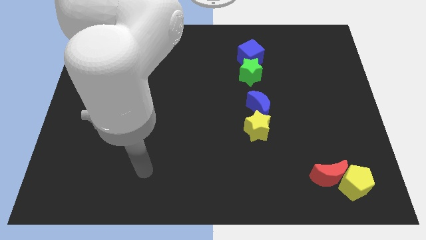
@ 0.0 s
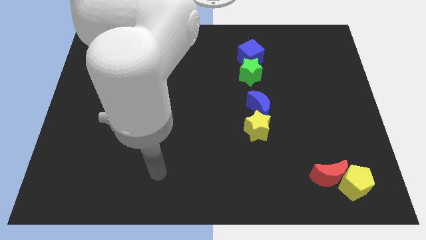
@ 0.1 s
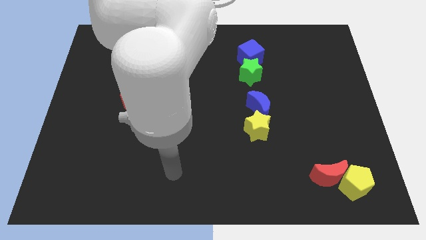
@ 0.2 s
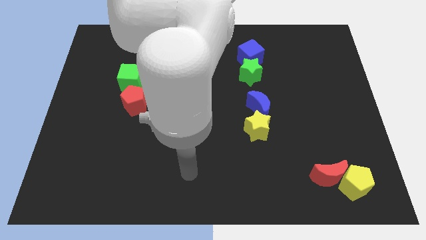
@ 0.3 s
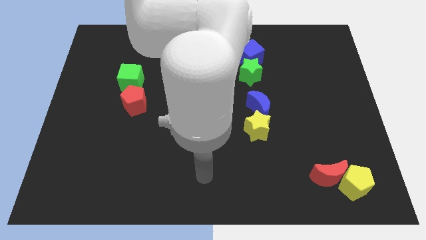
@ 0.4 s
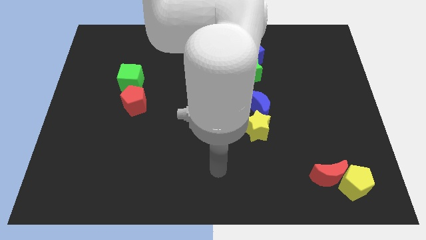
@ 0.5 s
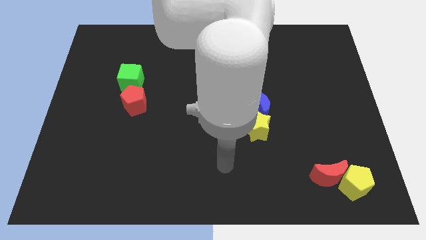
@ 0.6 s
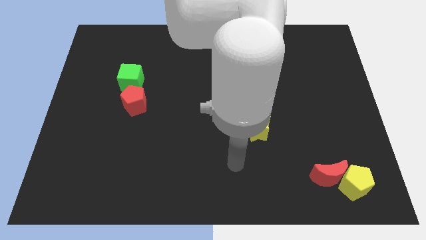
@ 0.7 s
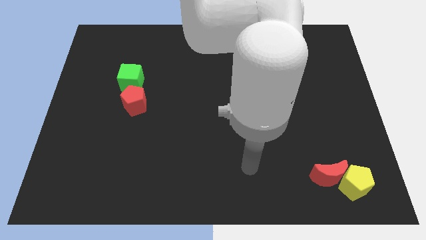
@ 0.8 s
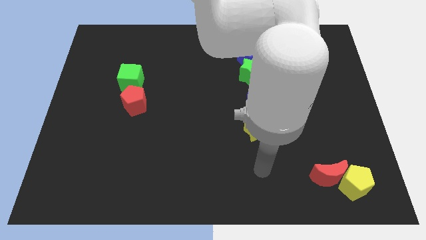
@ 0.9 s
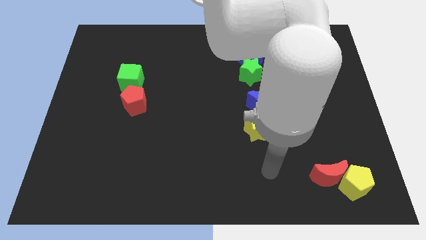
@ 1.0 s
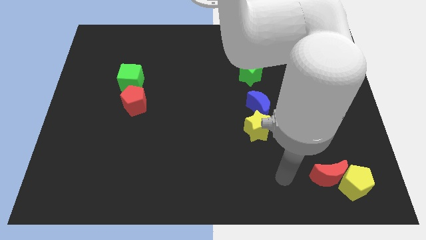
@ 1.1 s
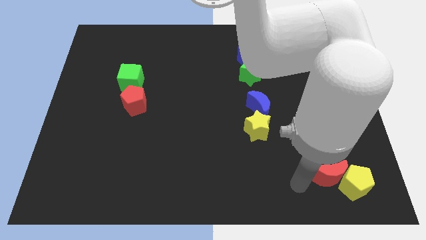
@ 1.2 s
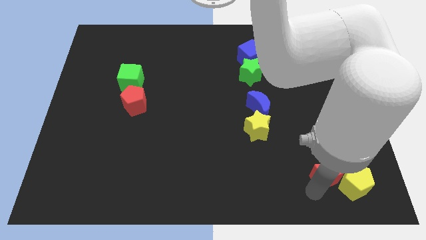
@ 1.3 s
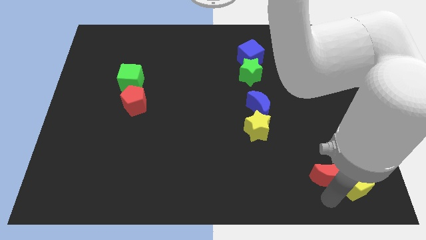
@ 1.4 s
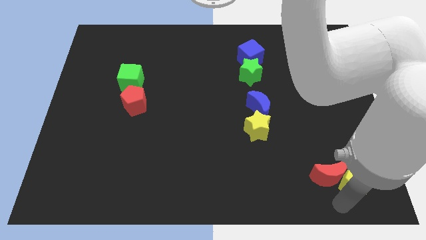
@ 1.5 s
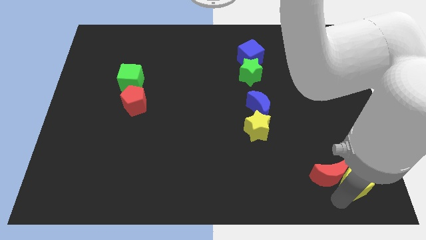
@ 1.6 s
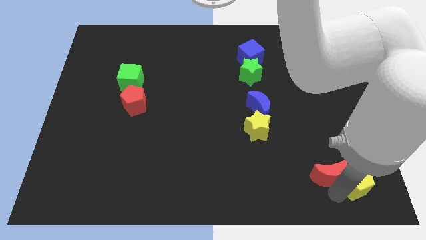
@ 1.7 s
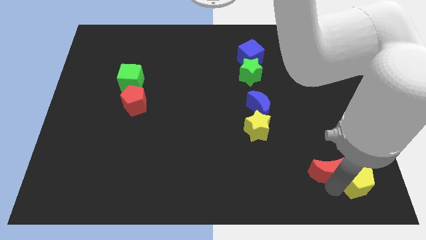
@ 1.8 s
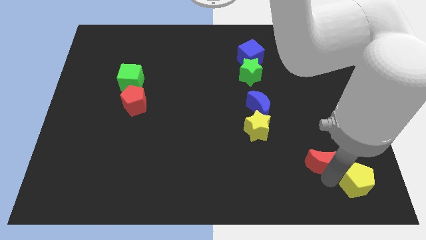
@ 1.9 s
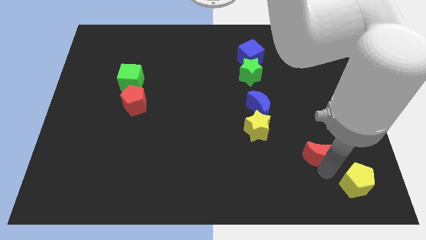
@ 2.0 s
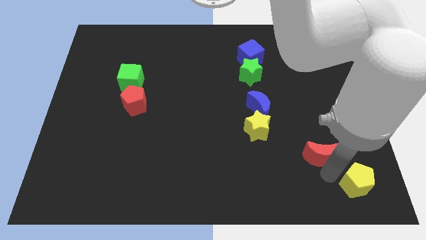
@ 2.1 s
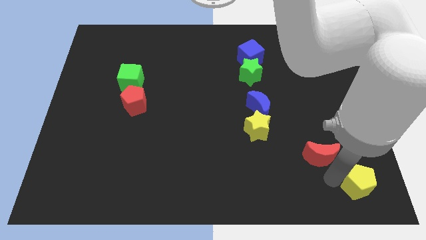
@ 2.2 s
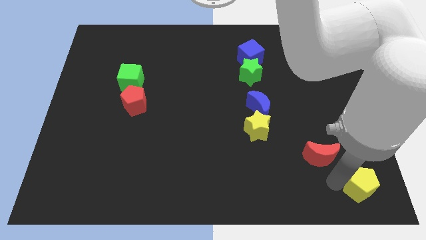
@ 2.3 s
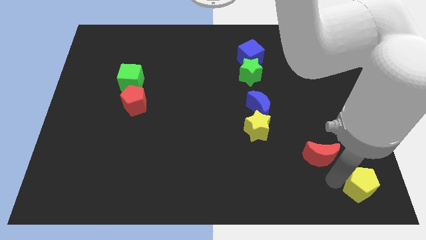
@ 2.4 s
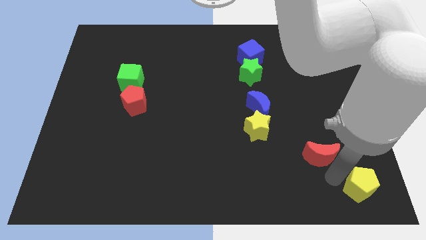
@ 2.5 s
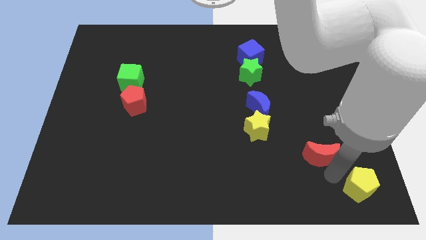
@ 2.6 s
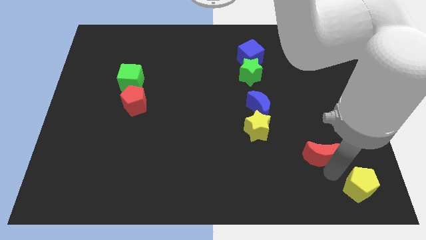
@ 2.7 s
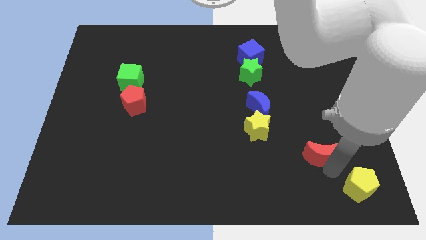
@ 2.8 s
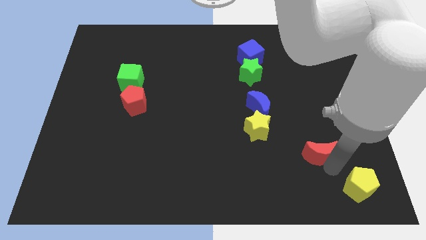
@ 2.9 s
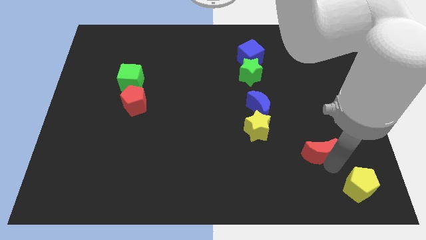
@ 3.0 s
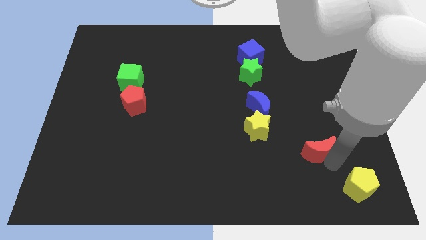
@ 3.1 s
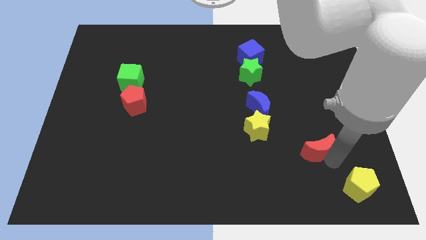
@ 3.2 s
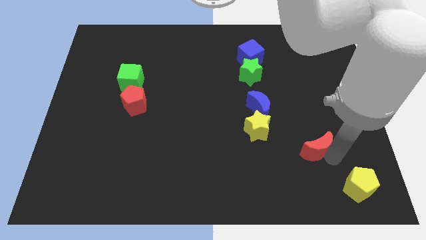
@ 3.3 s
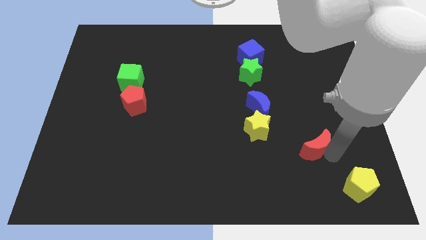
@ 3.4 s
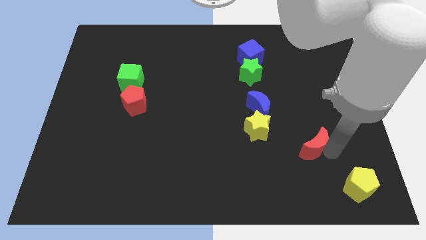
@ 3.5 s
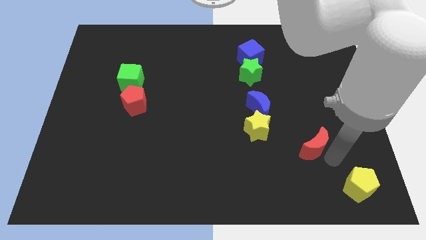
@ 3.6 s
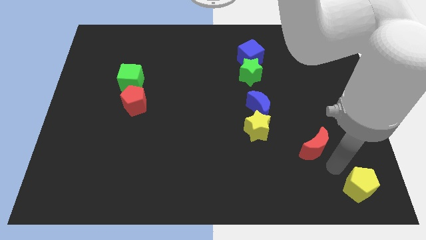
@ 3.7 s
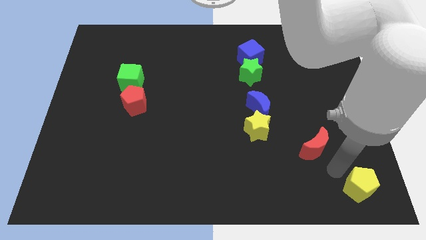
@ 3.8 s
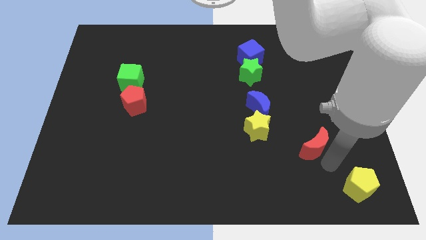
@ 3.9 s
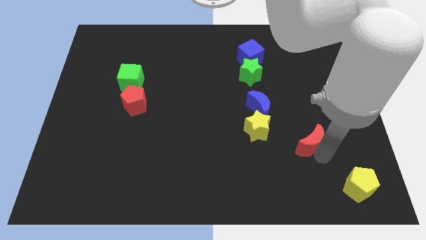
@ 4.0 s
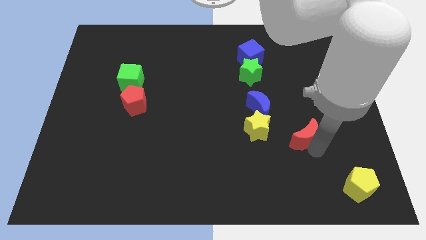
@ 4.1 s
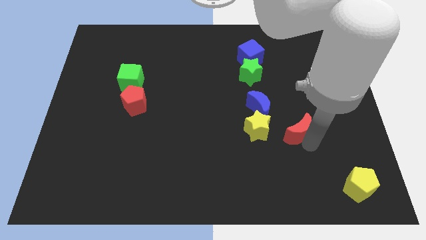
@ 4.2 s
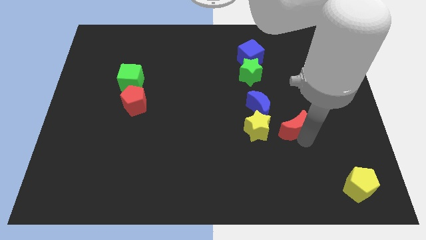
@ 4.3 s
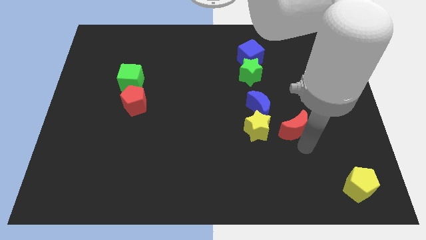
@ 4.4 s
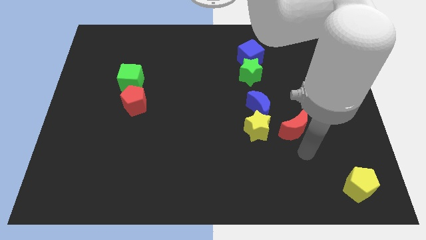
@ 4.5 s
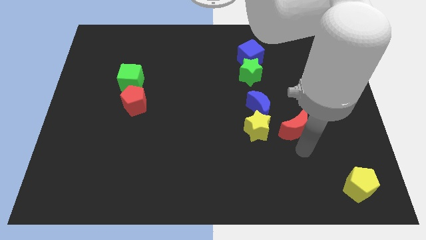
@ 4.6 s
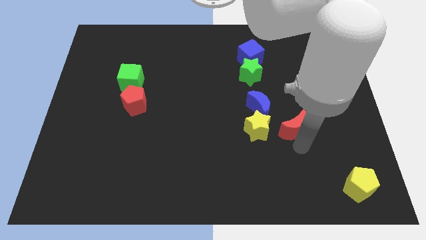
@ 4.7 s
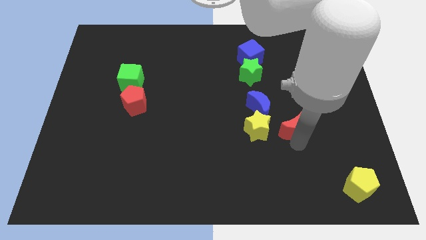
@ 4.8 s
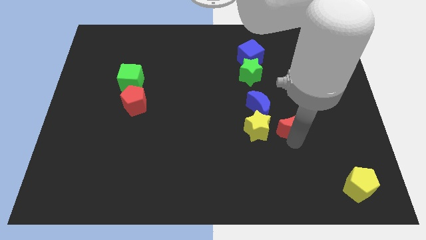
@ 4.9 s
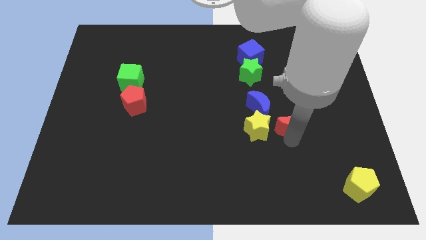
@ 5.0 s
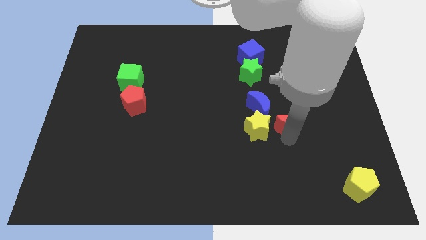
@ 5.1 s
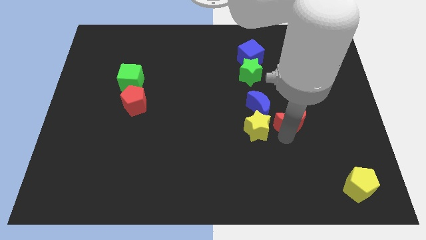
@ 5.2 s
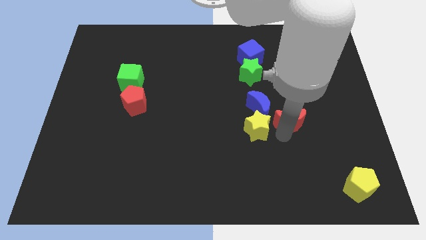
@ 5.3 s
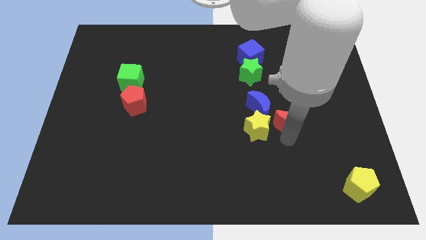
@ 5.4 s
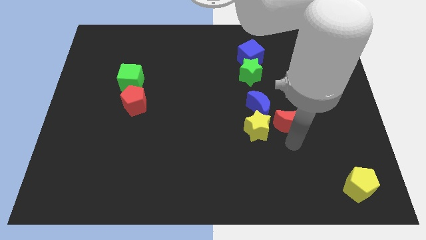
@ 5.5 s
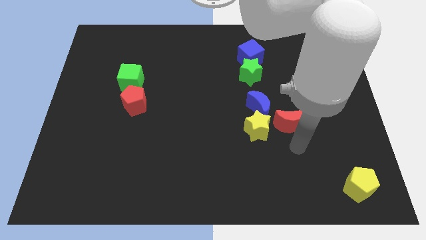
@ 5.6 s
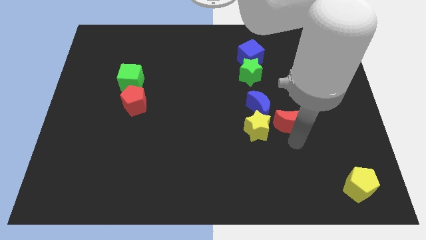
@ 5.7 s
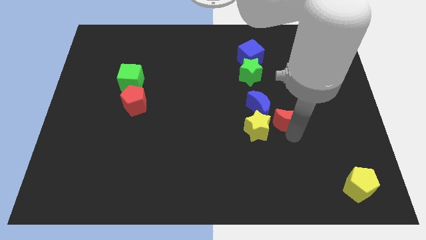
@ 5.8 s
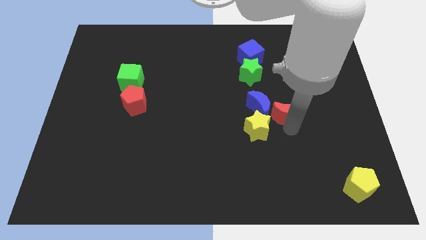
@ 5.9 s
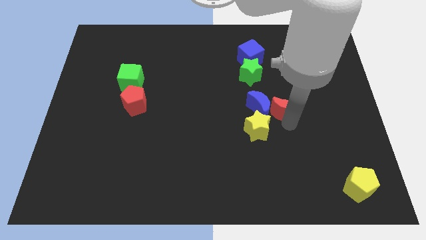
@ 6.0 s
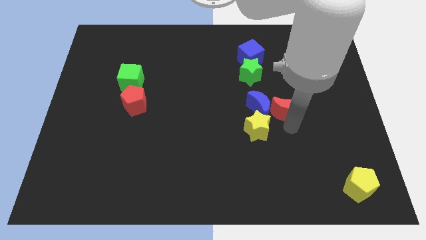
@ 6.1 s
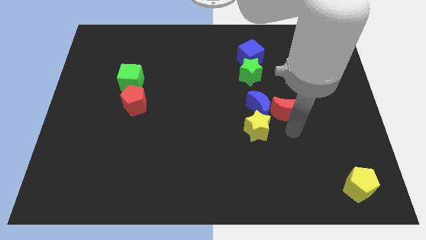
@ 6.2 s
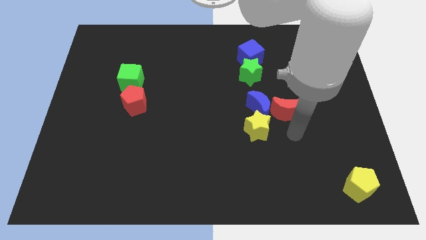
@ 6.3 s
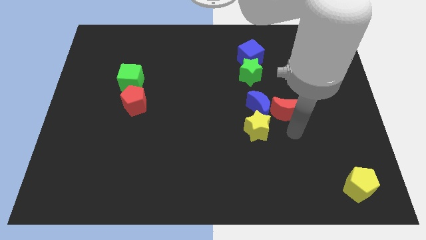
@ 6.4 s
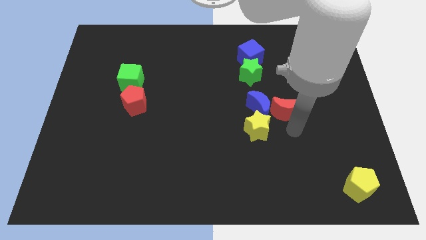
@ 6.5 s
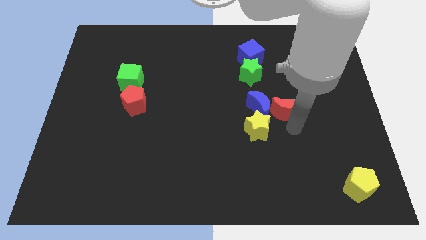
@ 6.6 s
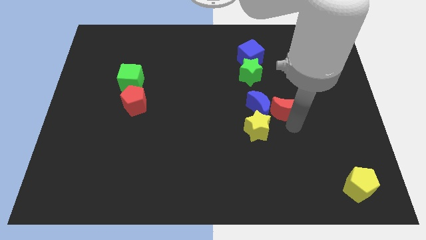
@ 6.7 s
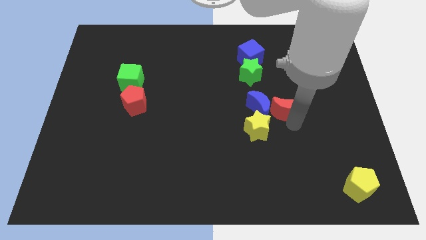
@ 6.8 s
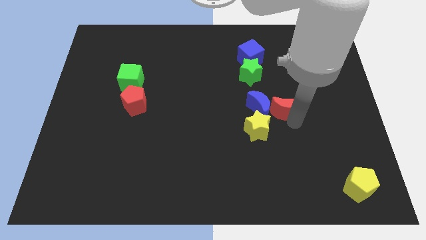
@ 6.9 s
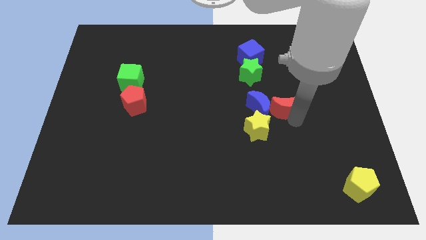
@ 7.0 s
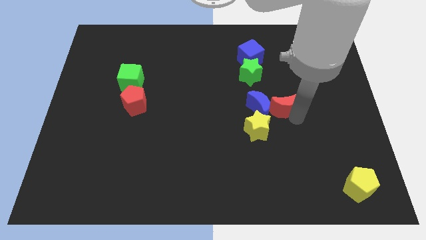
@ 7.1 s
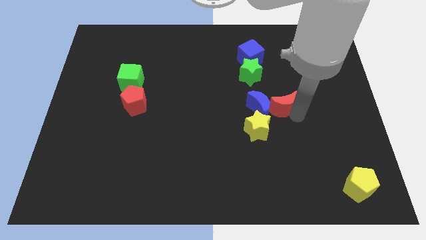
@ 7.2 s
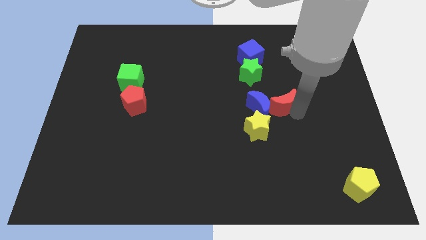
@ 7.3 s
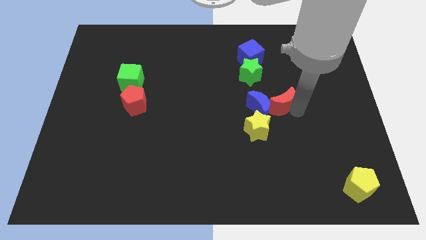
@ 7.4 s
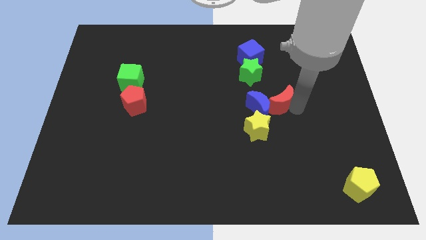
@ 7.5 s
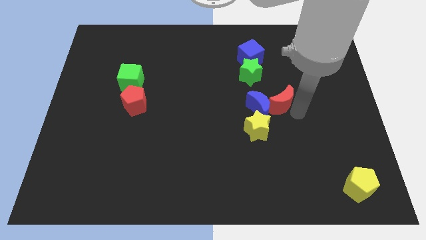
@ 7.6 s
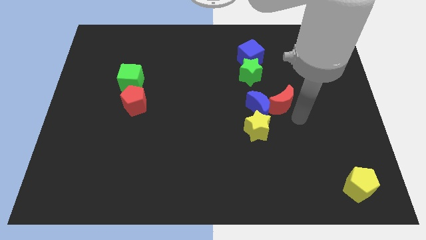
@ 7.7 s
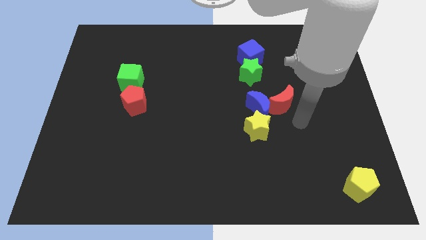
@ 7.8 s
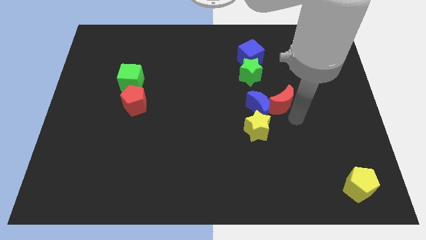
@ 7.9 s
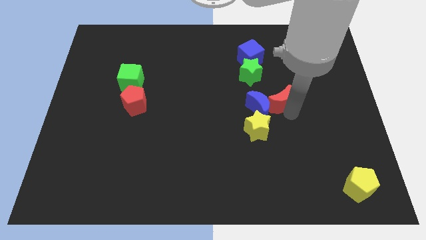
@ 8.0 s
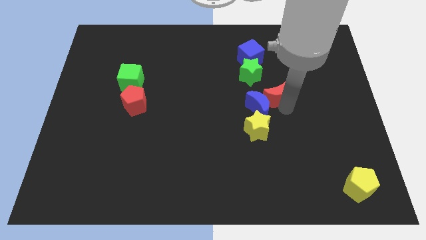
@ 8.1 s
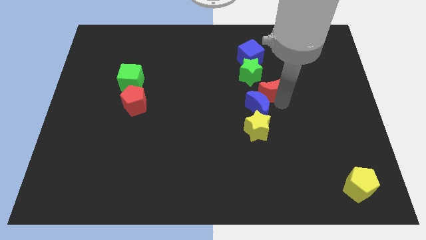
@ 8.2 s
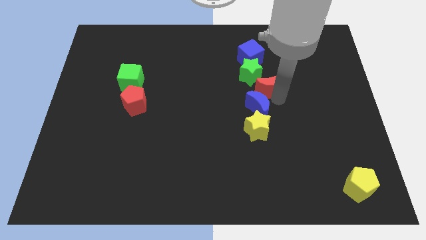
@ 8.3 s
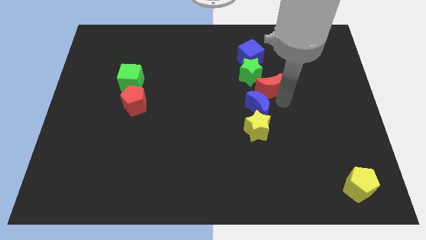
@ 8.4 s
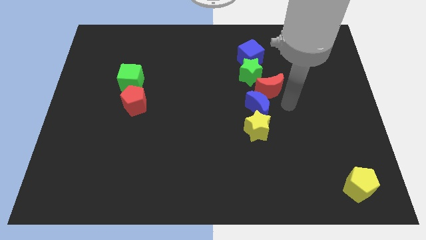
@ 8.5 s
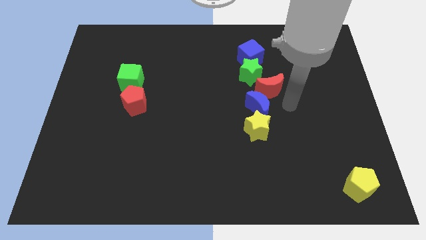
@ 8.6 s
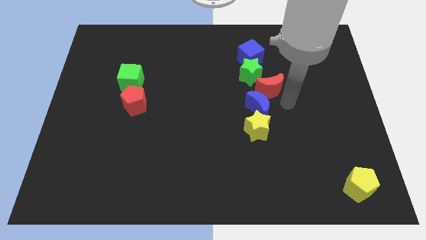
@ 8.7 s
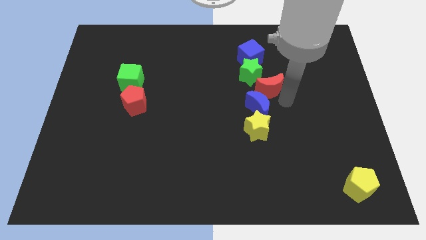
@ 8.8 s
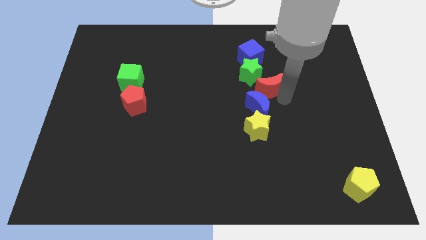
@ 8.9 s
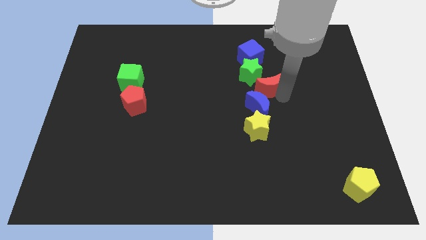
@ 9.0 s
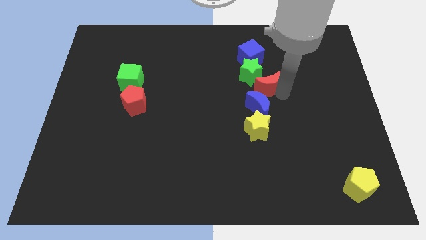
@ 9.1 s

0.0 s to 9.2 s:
put the red moon close to the green star
